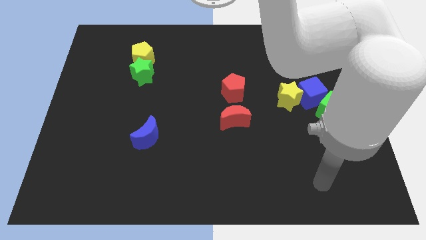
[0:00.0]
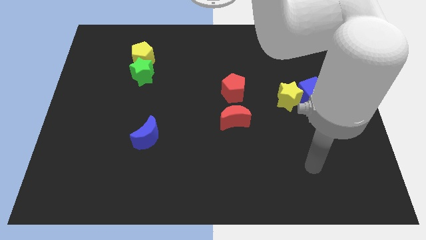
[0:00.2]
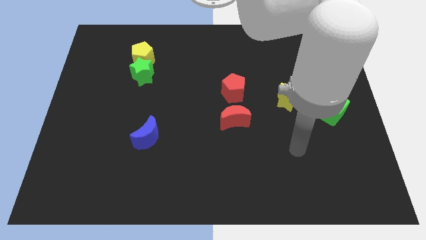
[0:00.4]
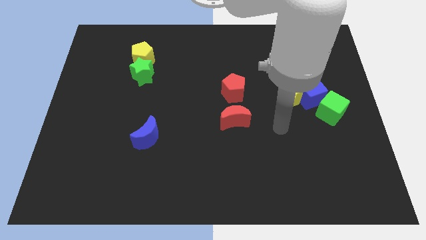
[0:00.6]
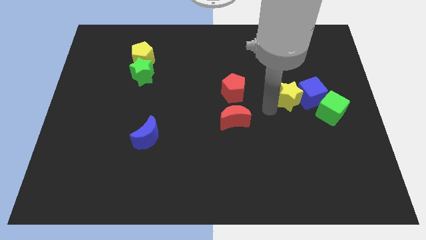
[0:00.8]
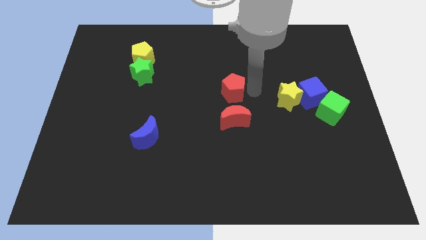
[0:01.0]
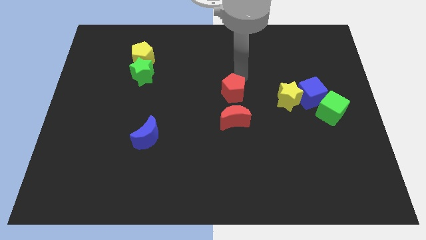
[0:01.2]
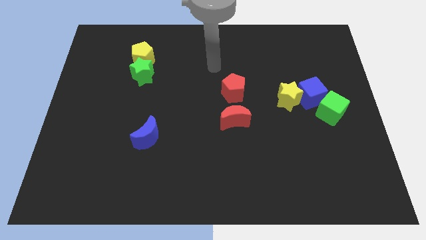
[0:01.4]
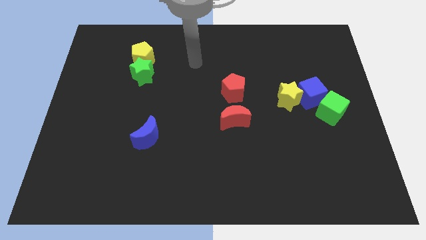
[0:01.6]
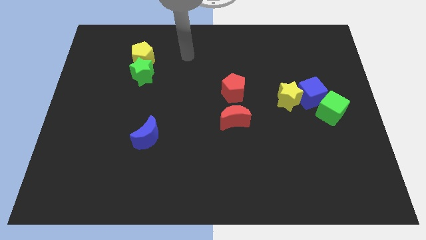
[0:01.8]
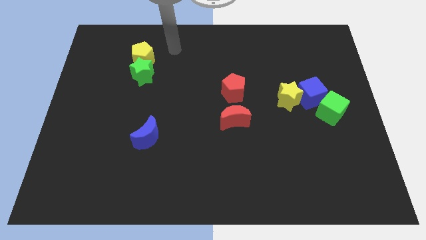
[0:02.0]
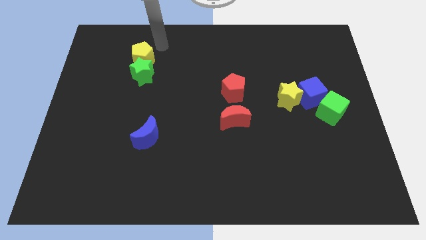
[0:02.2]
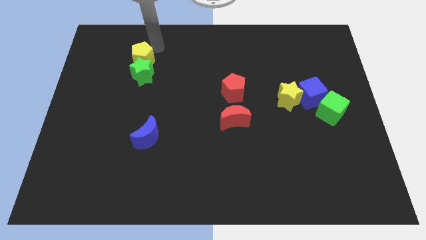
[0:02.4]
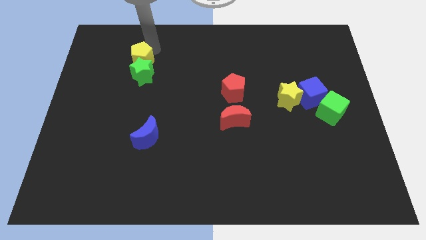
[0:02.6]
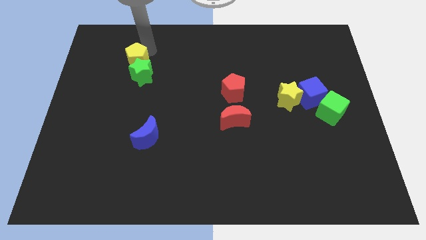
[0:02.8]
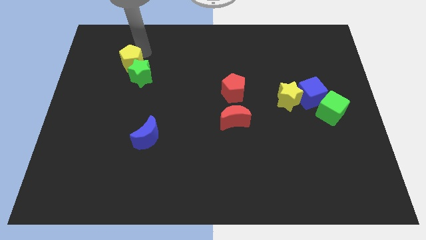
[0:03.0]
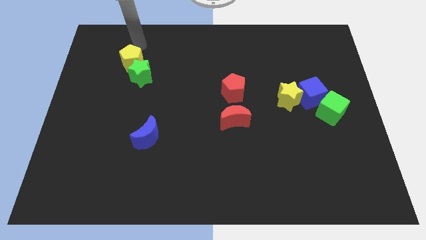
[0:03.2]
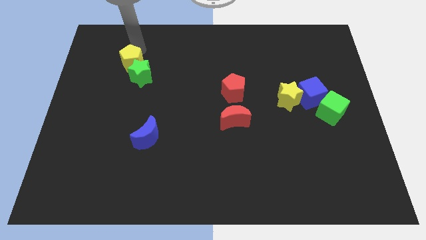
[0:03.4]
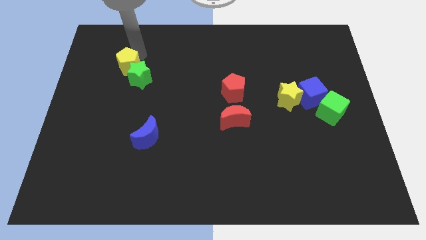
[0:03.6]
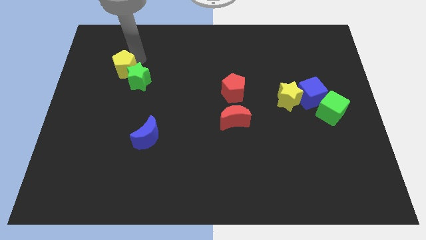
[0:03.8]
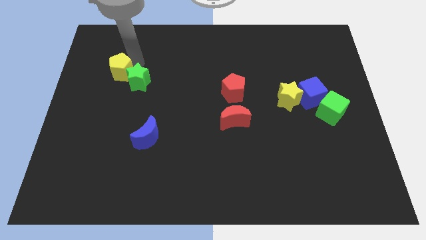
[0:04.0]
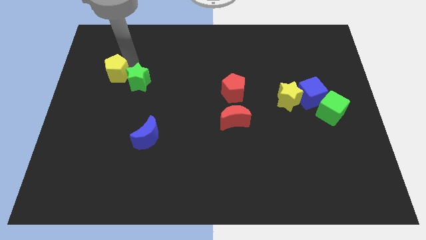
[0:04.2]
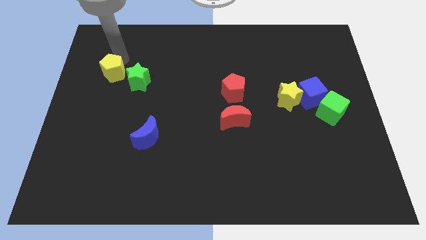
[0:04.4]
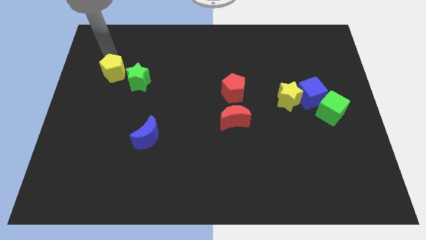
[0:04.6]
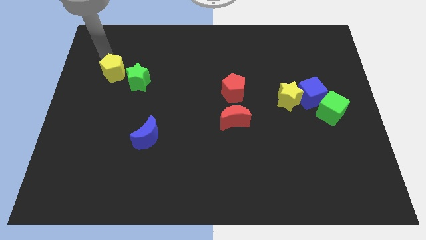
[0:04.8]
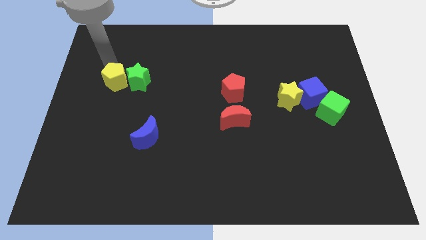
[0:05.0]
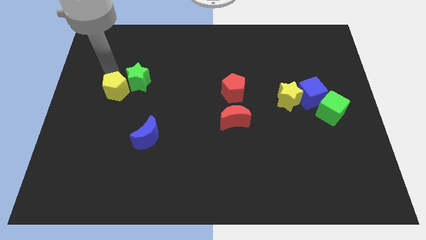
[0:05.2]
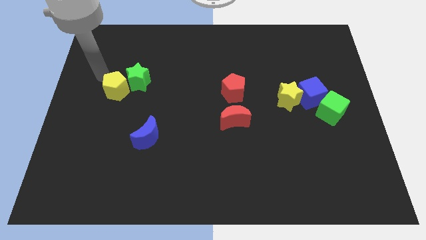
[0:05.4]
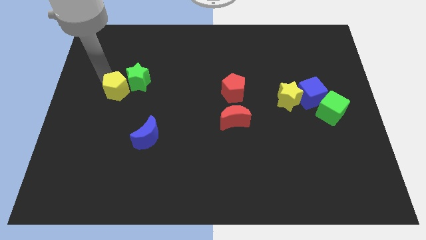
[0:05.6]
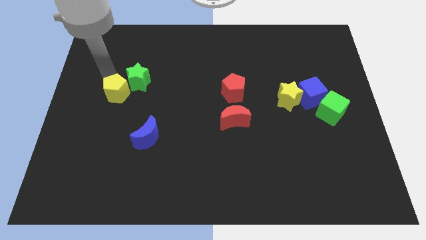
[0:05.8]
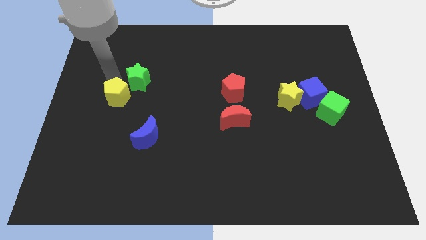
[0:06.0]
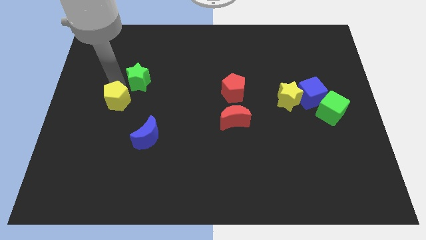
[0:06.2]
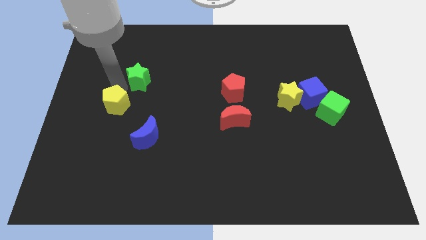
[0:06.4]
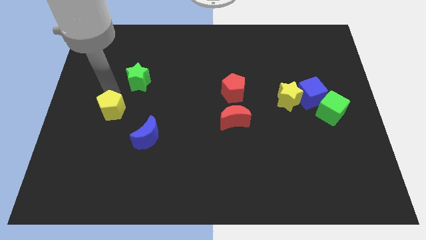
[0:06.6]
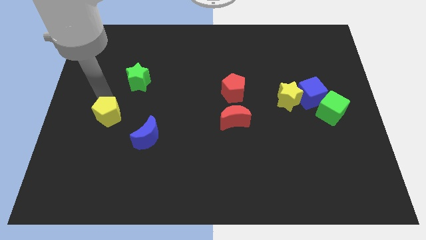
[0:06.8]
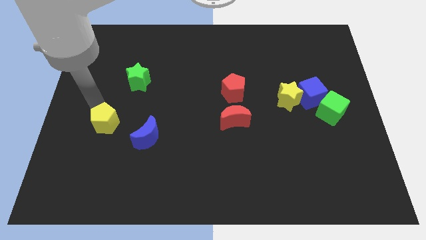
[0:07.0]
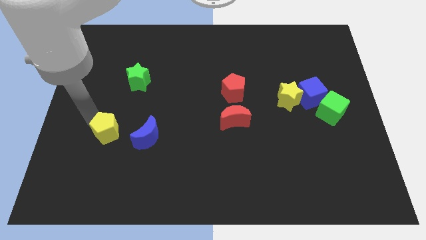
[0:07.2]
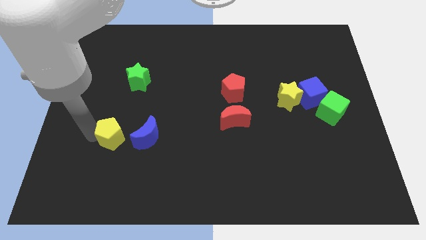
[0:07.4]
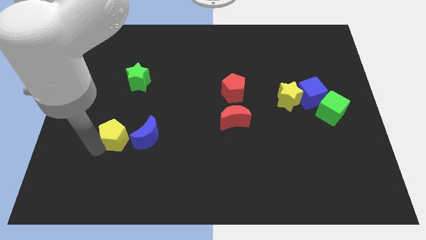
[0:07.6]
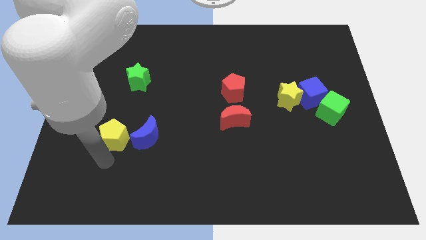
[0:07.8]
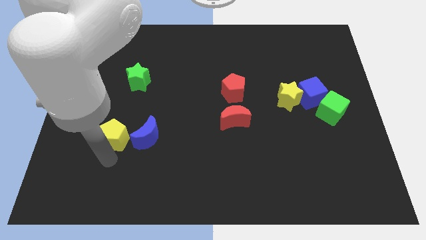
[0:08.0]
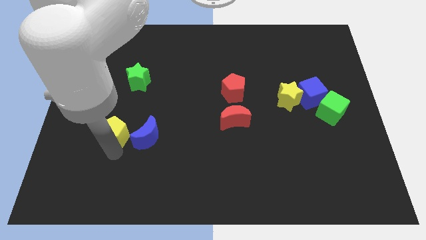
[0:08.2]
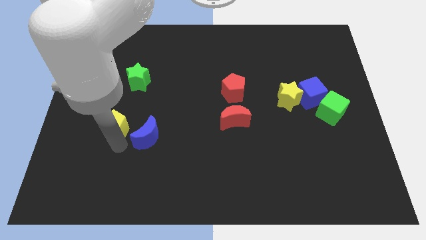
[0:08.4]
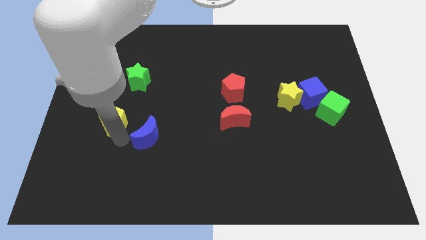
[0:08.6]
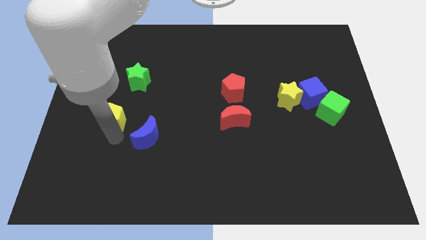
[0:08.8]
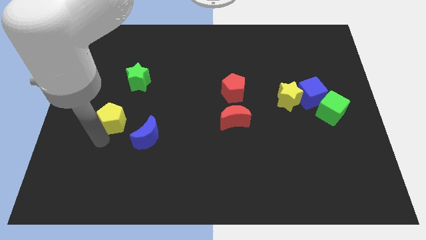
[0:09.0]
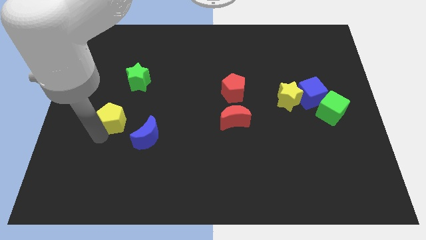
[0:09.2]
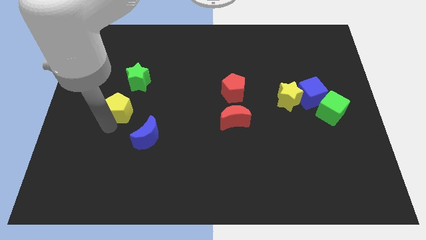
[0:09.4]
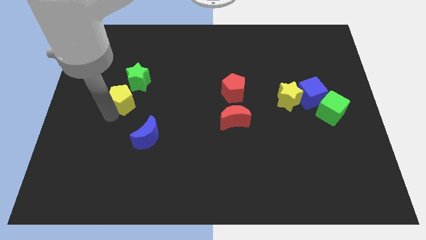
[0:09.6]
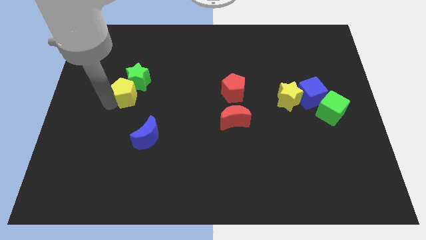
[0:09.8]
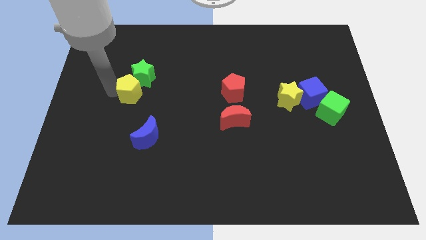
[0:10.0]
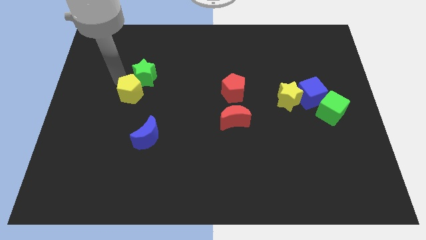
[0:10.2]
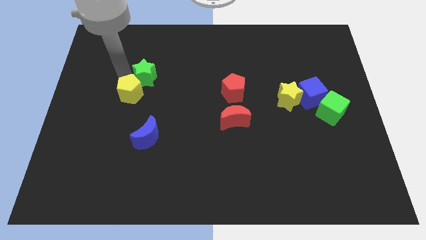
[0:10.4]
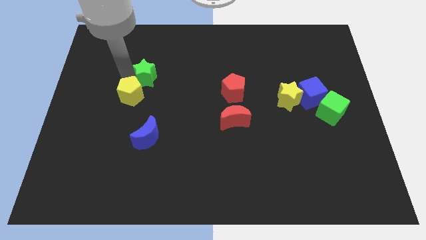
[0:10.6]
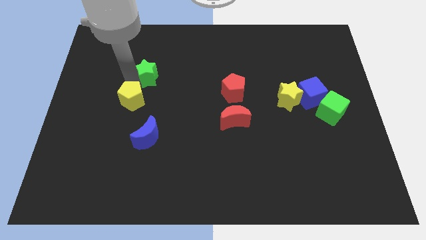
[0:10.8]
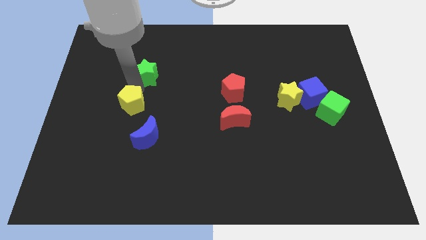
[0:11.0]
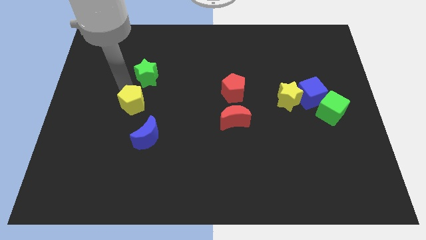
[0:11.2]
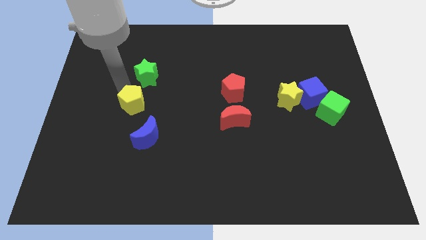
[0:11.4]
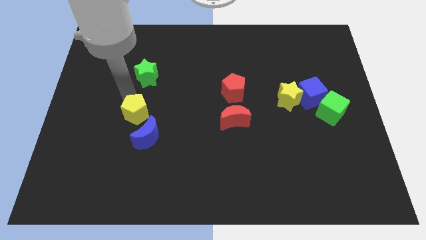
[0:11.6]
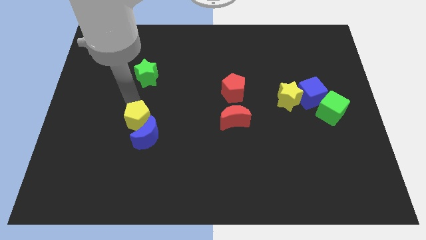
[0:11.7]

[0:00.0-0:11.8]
move the yellow pentagon next to the blue moon

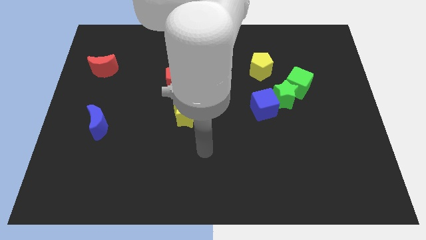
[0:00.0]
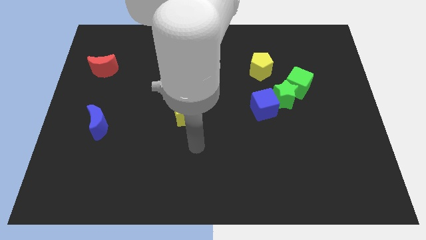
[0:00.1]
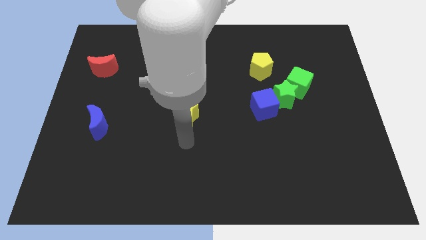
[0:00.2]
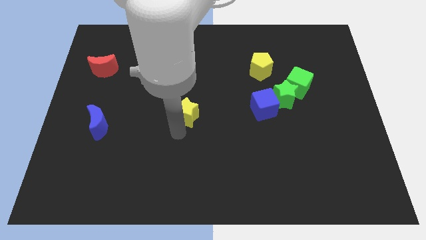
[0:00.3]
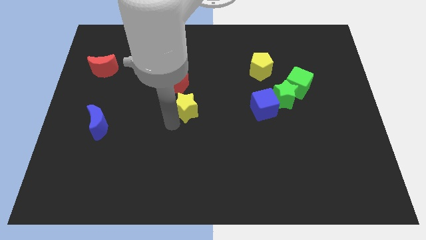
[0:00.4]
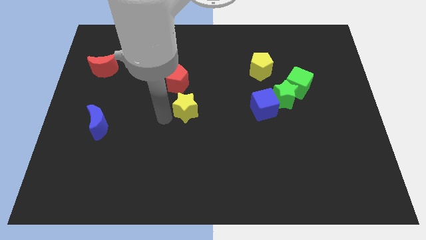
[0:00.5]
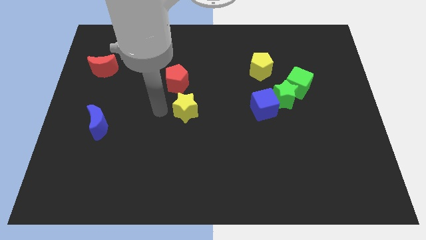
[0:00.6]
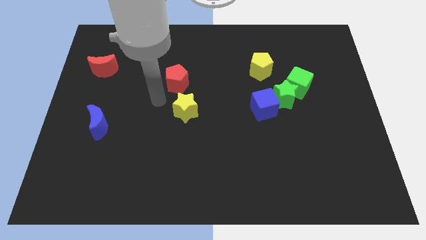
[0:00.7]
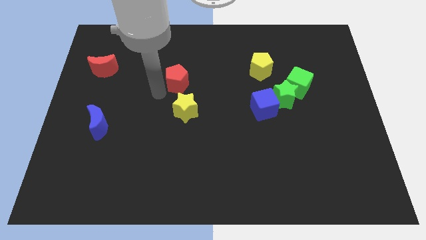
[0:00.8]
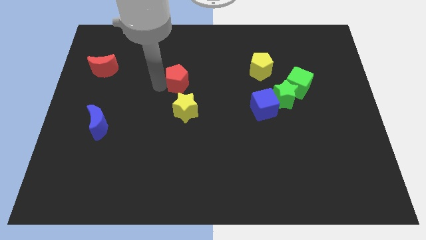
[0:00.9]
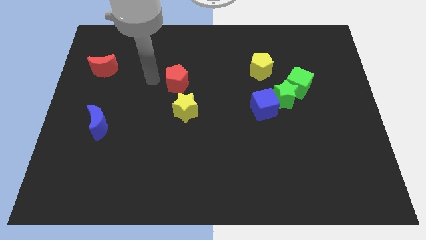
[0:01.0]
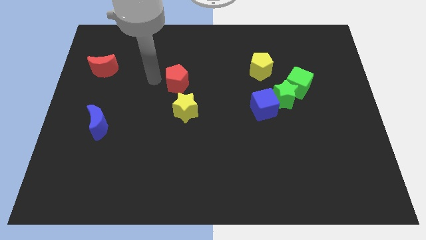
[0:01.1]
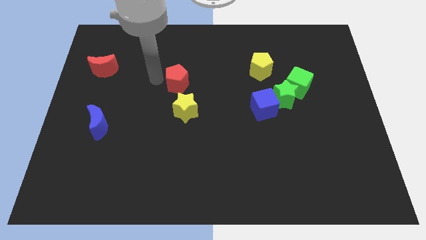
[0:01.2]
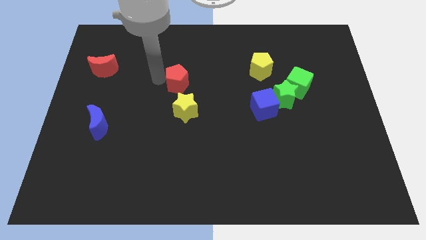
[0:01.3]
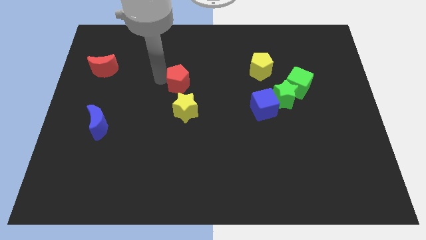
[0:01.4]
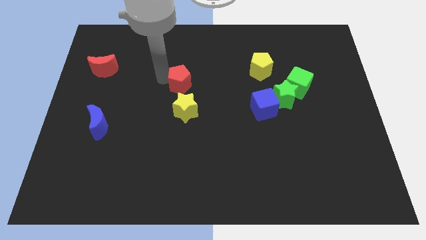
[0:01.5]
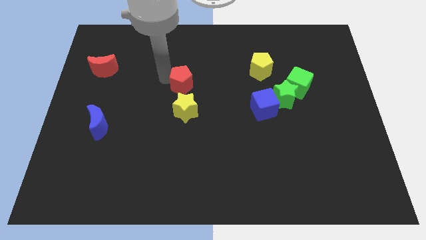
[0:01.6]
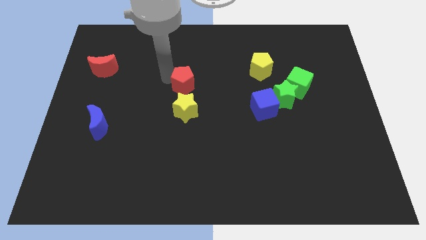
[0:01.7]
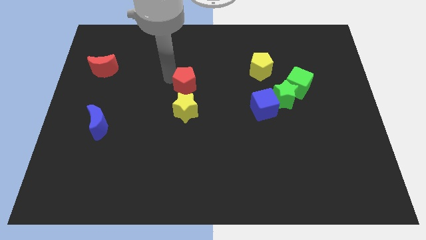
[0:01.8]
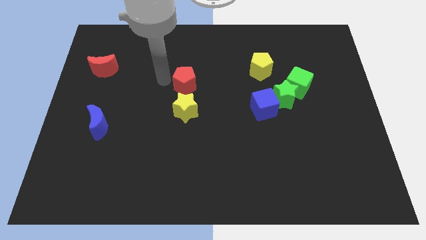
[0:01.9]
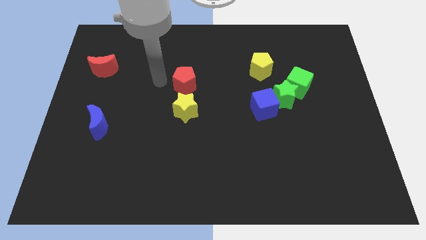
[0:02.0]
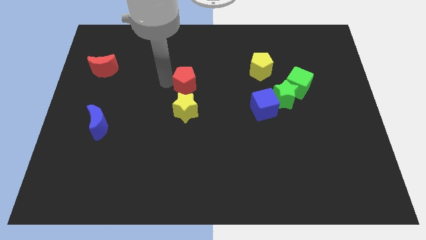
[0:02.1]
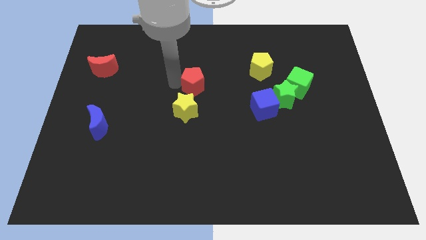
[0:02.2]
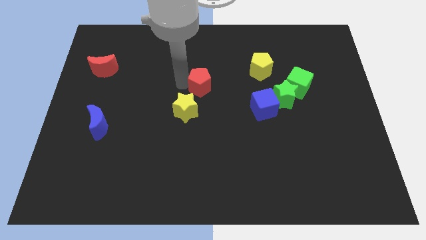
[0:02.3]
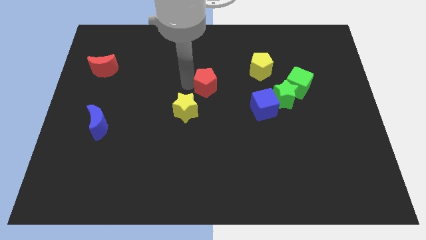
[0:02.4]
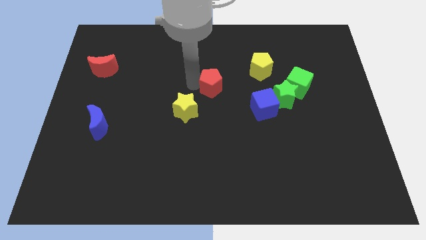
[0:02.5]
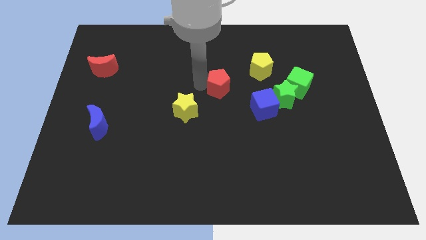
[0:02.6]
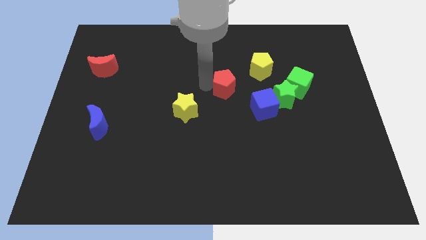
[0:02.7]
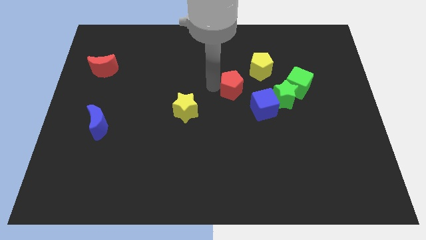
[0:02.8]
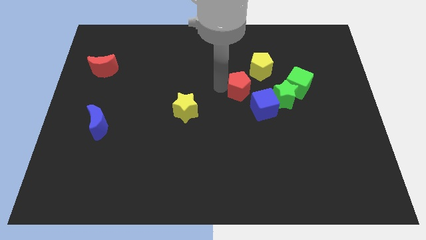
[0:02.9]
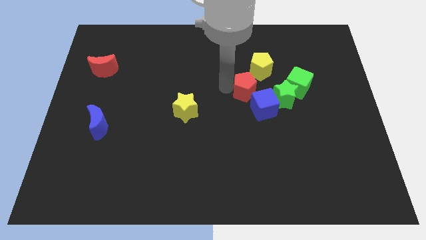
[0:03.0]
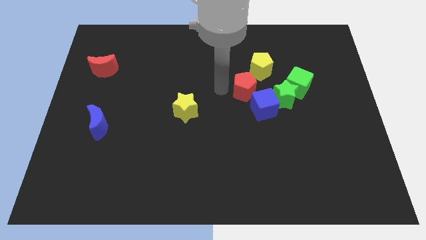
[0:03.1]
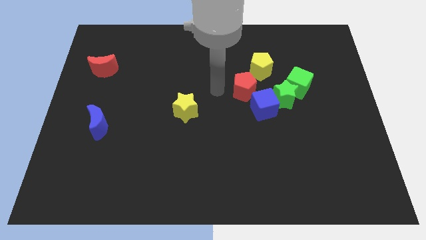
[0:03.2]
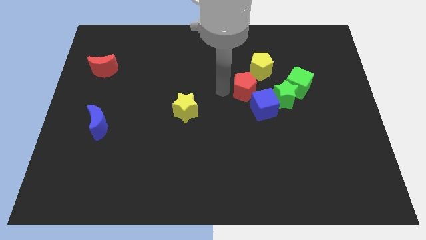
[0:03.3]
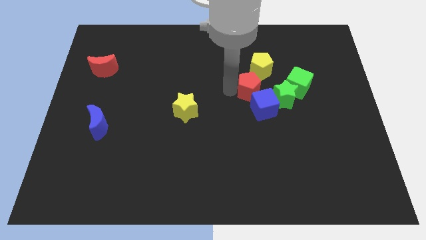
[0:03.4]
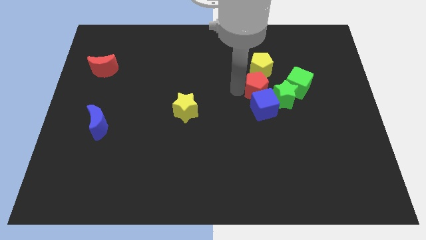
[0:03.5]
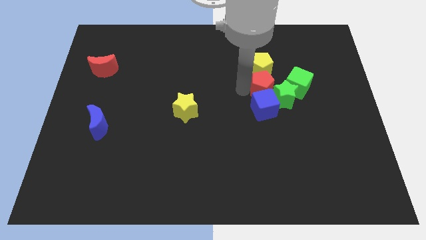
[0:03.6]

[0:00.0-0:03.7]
put the red pentagon close to the green star
